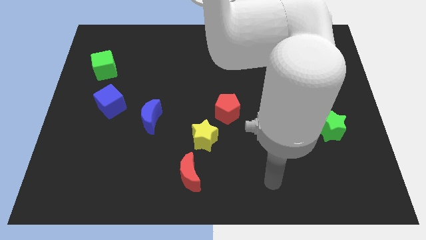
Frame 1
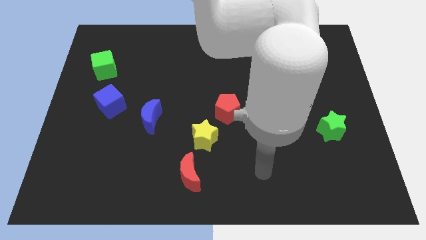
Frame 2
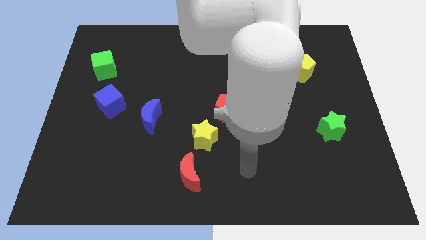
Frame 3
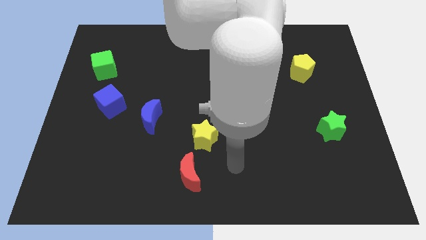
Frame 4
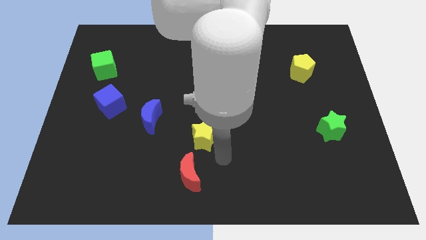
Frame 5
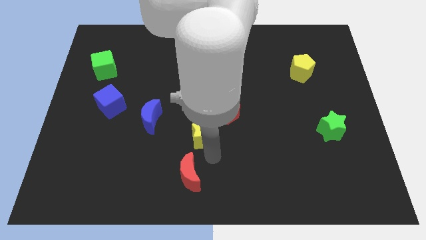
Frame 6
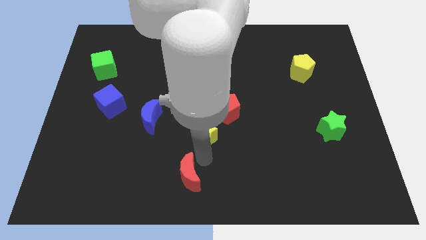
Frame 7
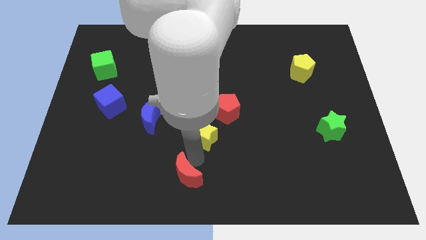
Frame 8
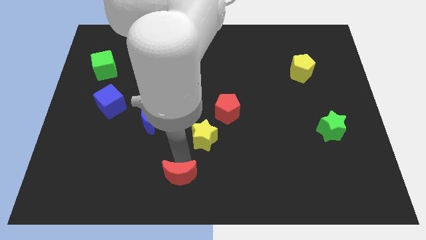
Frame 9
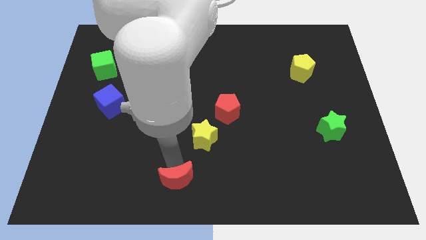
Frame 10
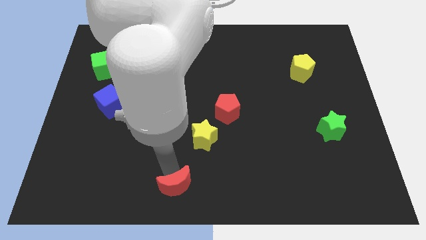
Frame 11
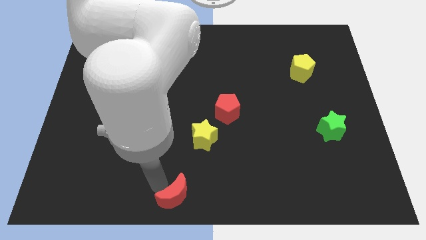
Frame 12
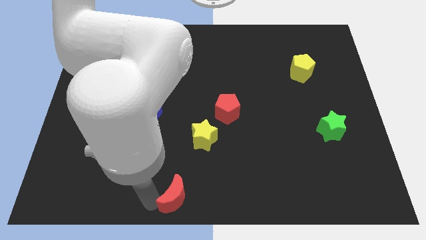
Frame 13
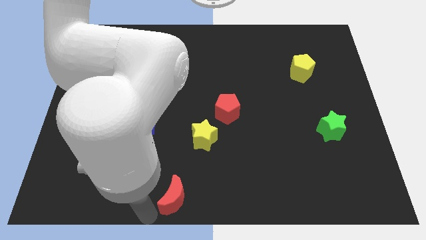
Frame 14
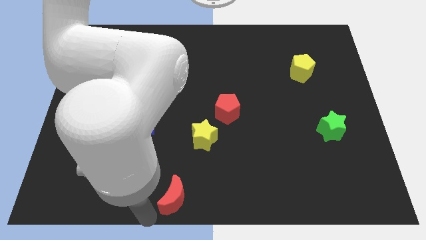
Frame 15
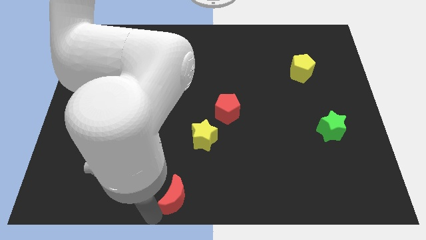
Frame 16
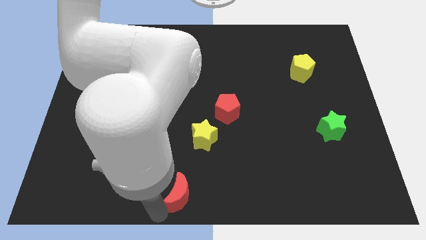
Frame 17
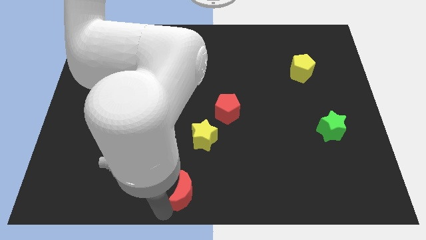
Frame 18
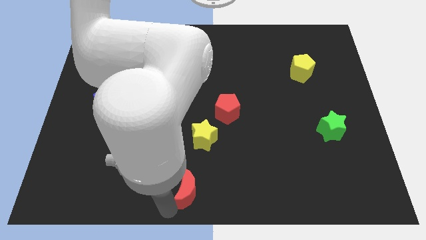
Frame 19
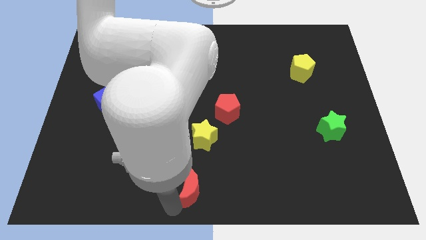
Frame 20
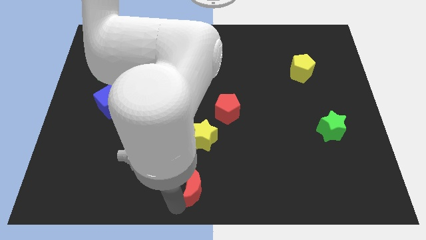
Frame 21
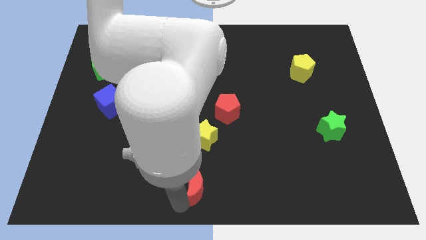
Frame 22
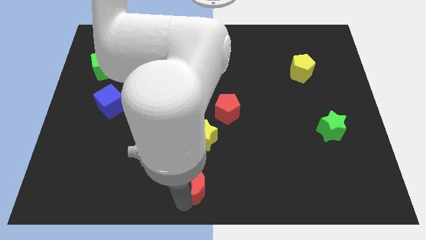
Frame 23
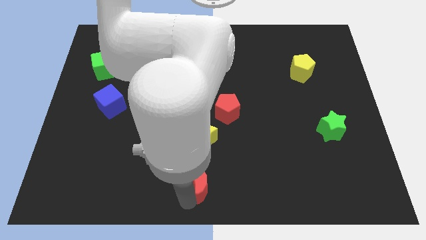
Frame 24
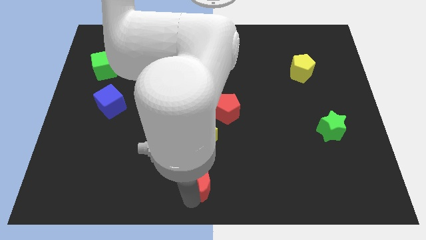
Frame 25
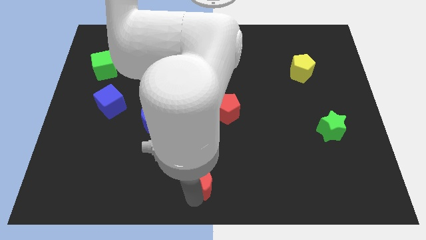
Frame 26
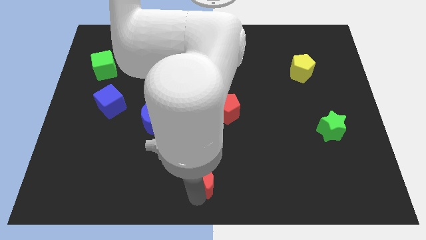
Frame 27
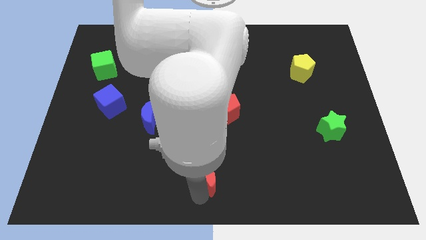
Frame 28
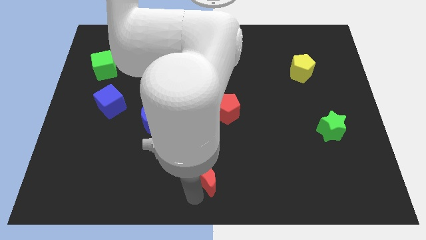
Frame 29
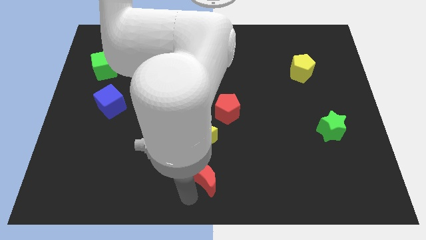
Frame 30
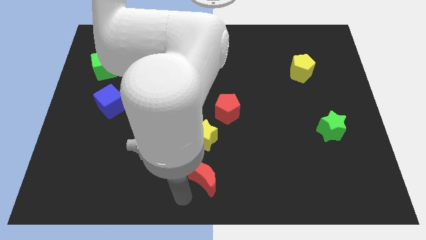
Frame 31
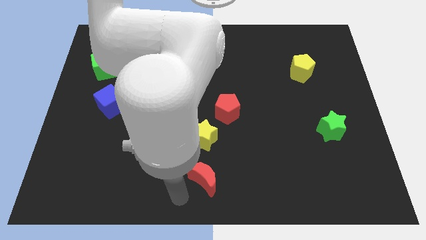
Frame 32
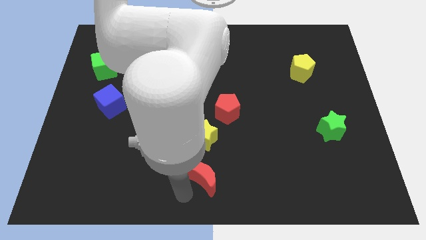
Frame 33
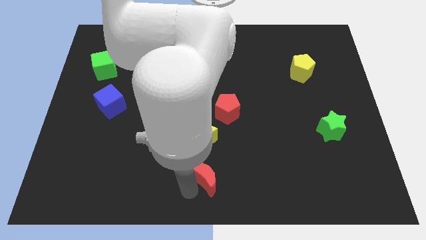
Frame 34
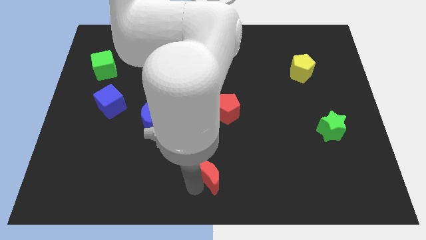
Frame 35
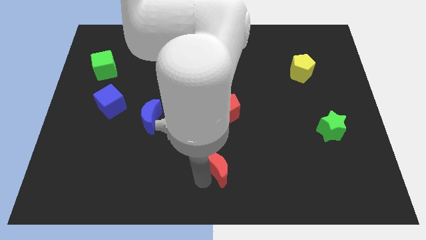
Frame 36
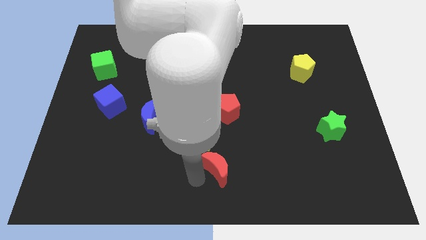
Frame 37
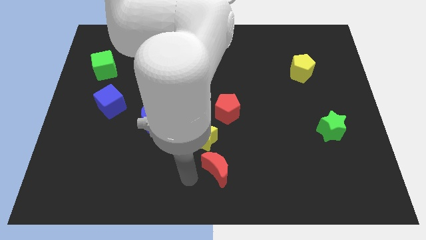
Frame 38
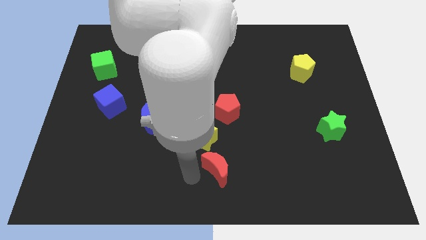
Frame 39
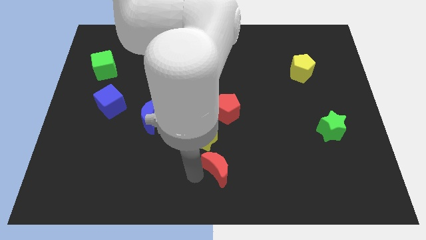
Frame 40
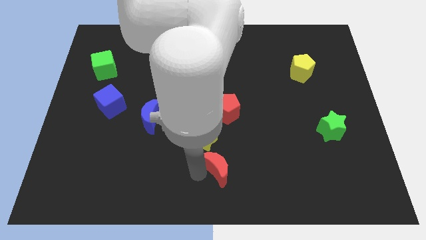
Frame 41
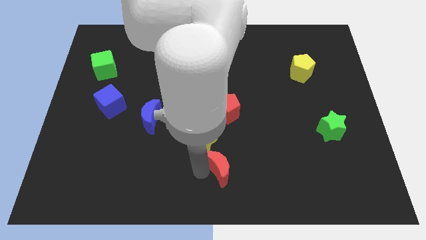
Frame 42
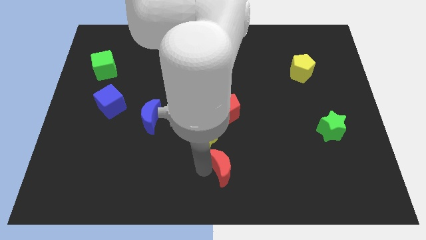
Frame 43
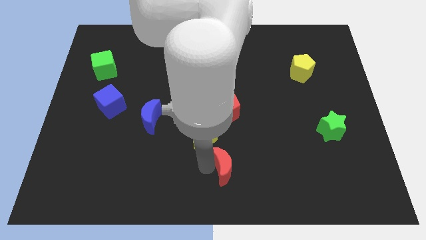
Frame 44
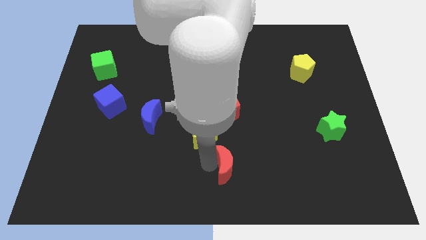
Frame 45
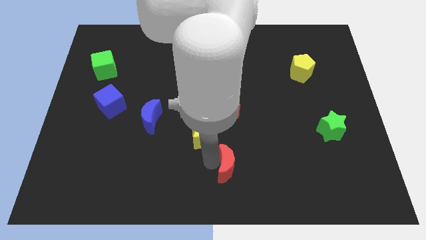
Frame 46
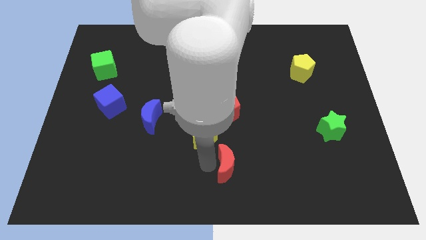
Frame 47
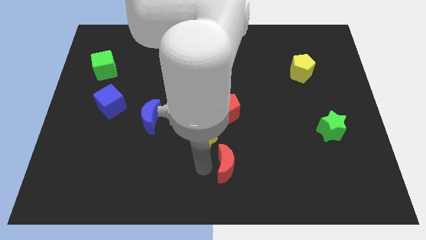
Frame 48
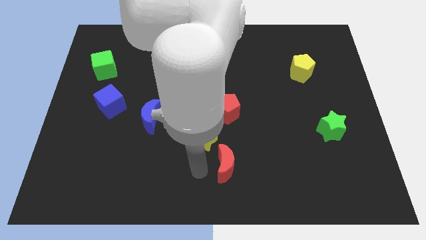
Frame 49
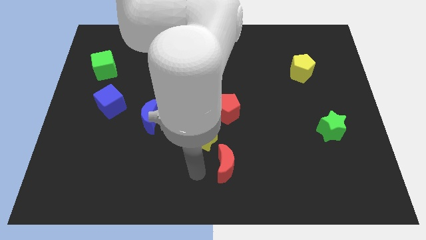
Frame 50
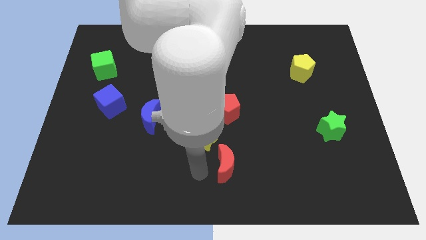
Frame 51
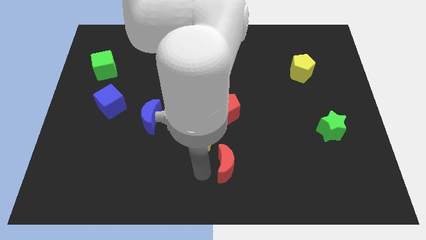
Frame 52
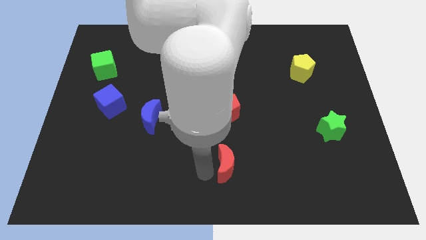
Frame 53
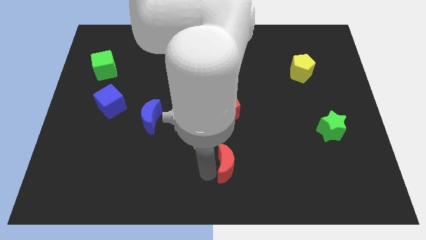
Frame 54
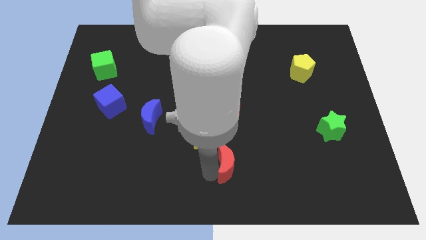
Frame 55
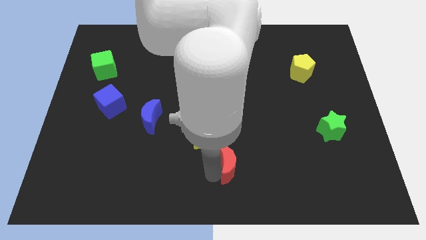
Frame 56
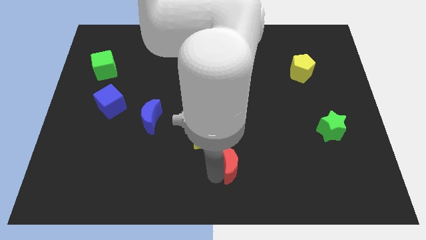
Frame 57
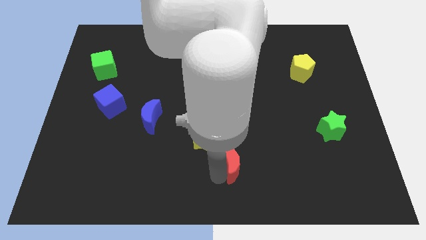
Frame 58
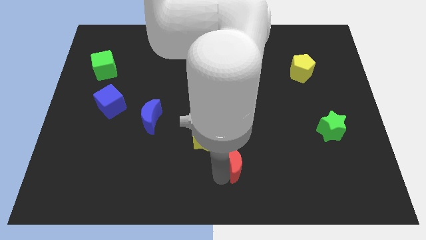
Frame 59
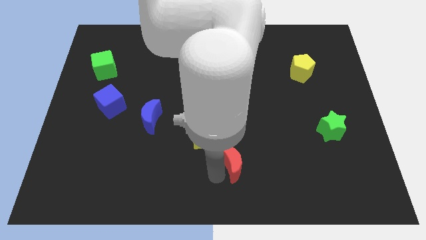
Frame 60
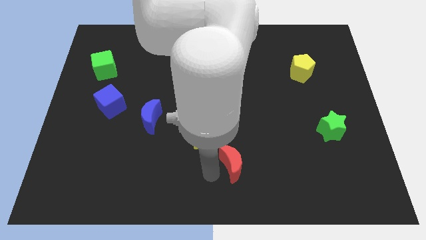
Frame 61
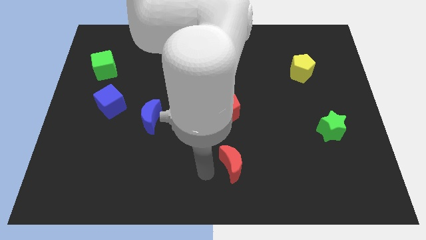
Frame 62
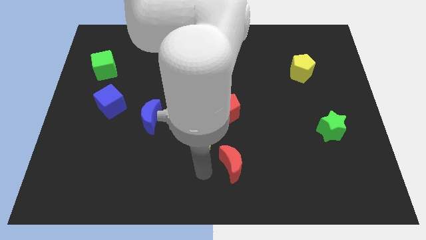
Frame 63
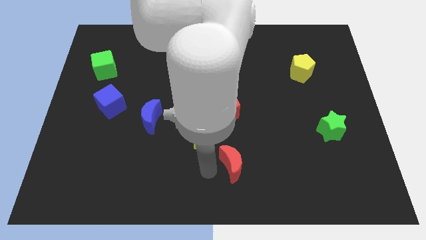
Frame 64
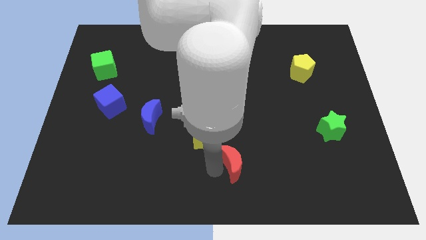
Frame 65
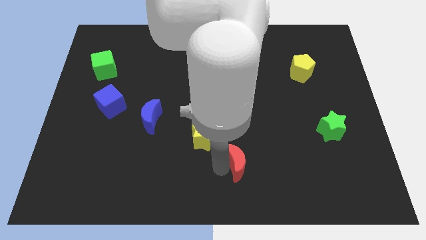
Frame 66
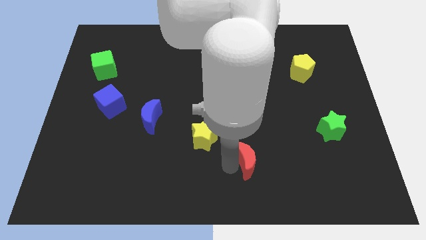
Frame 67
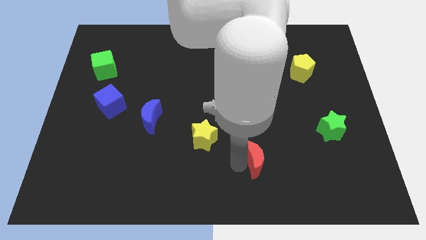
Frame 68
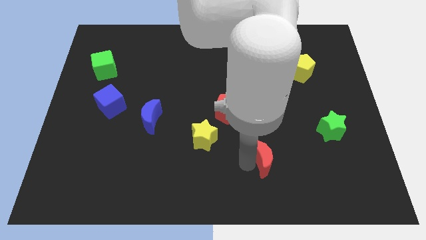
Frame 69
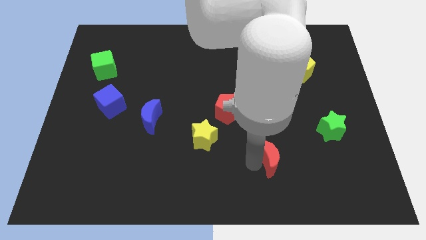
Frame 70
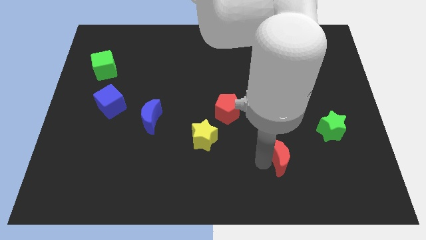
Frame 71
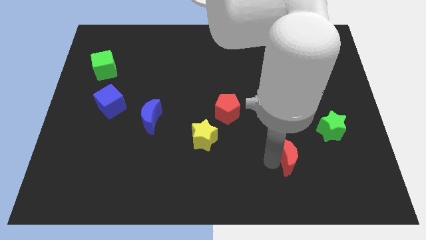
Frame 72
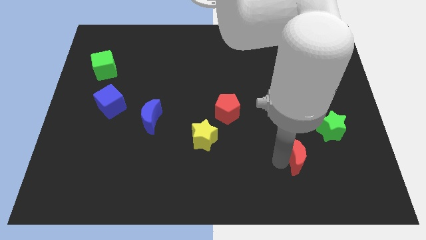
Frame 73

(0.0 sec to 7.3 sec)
slide the red moon diagonally down and to the left of the green star

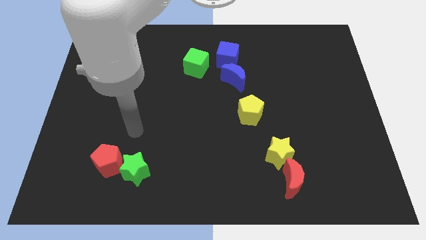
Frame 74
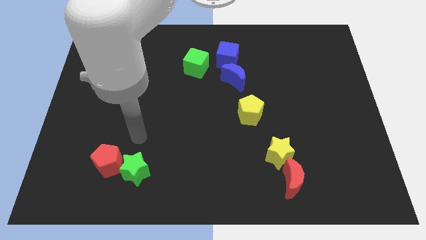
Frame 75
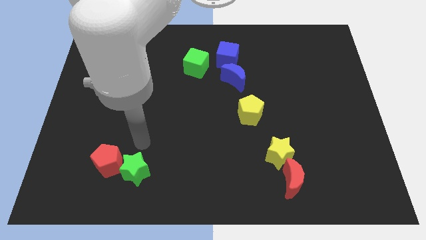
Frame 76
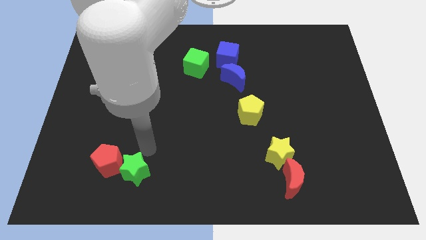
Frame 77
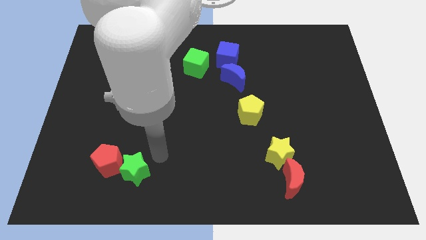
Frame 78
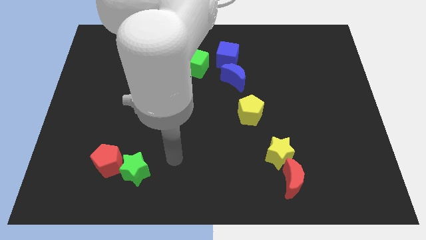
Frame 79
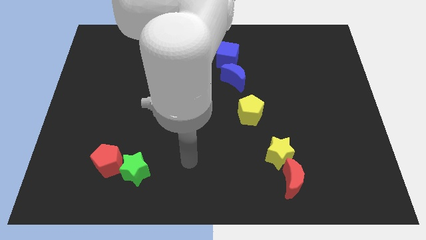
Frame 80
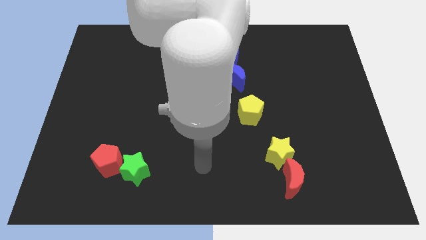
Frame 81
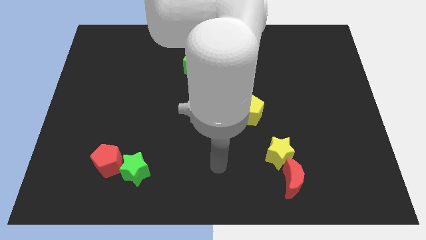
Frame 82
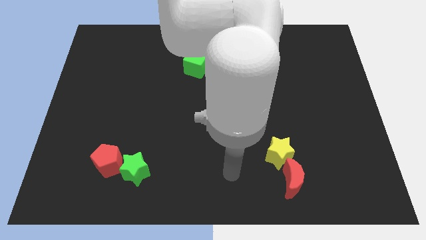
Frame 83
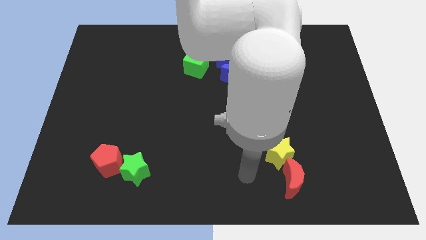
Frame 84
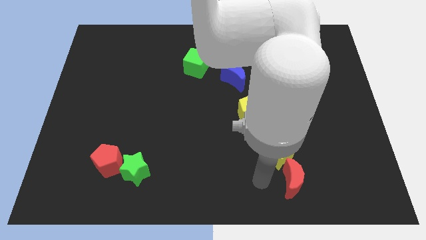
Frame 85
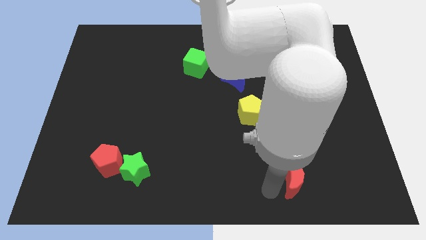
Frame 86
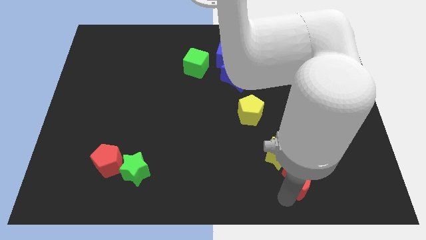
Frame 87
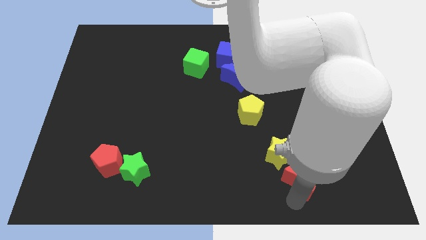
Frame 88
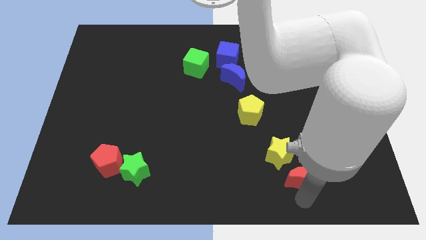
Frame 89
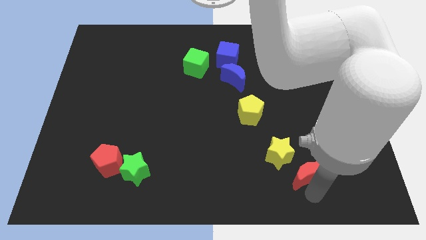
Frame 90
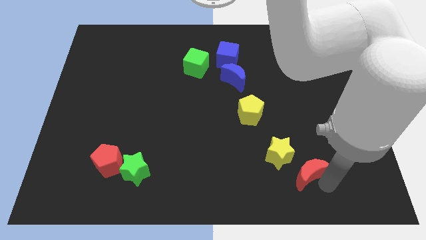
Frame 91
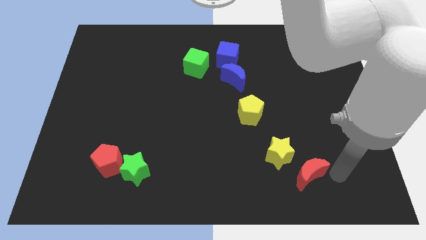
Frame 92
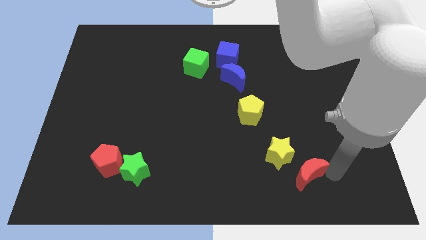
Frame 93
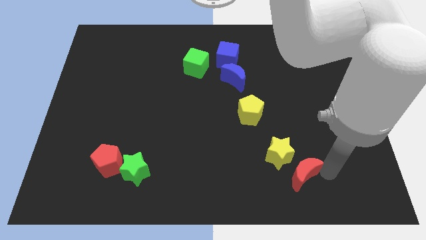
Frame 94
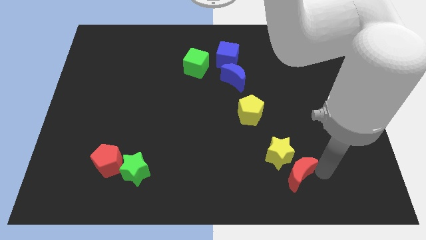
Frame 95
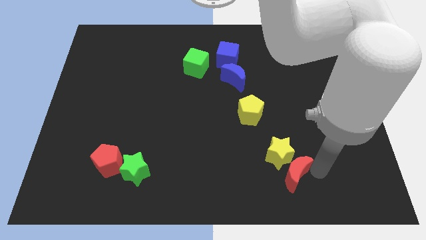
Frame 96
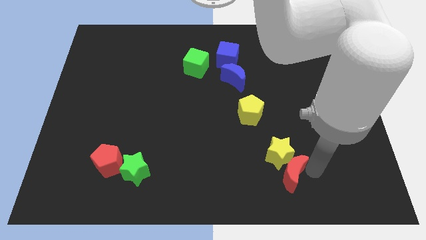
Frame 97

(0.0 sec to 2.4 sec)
put the red moon diagonally down and to the left of the yellow star
